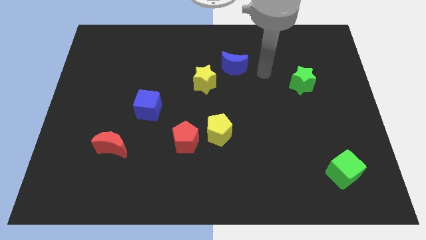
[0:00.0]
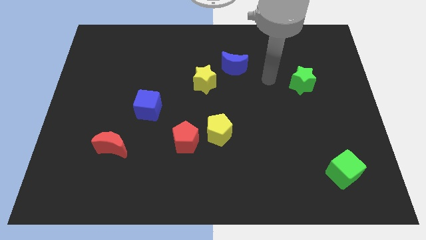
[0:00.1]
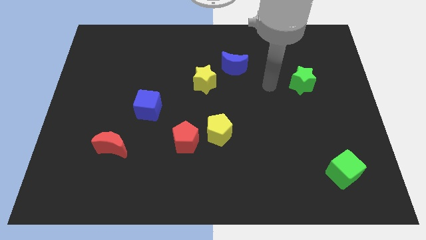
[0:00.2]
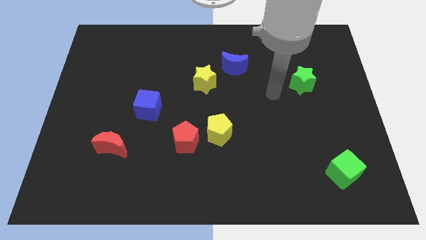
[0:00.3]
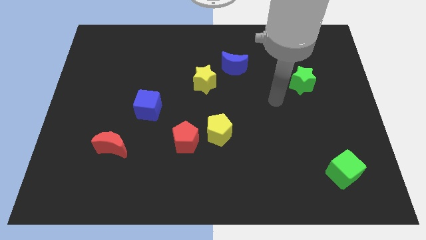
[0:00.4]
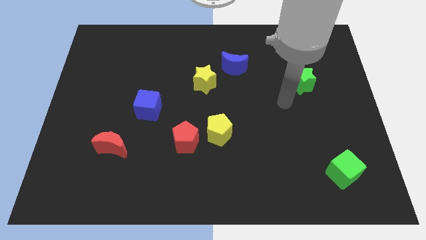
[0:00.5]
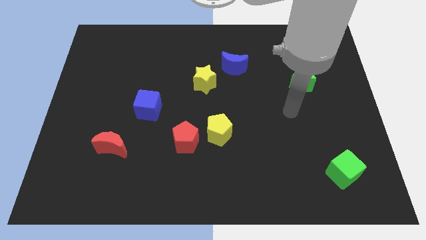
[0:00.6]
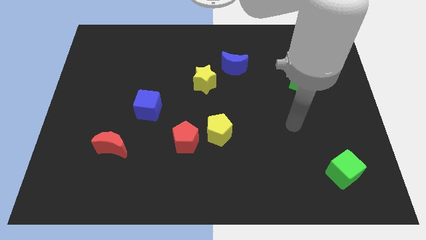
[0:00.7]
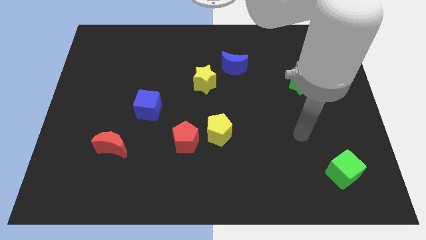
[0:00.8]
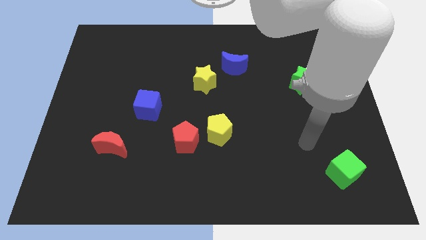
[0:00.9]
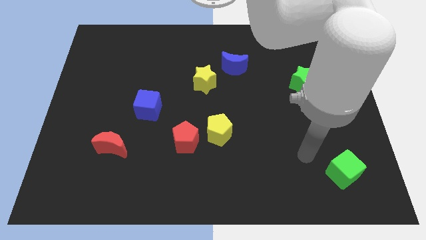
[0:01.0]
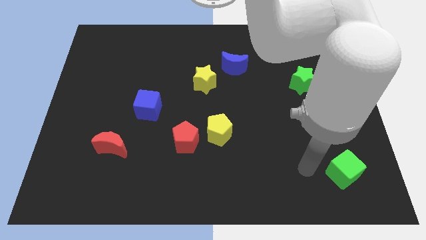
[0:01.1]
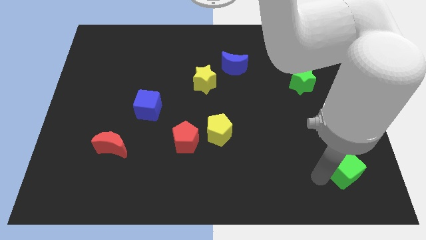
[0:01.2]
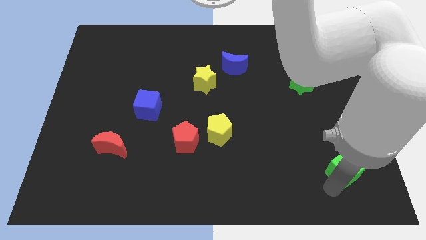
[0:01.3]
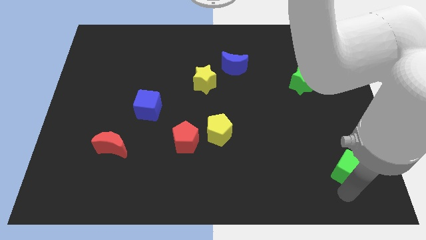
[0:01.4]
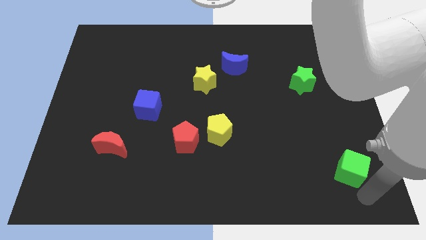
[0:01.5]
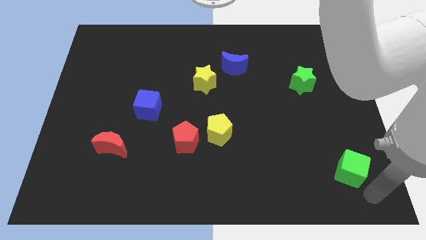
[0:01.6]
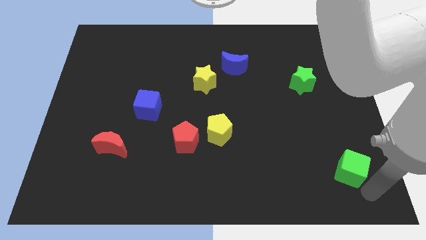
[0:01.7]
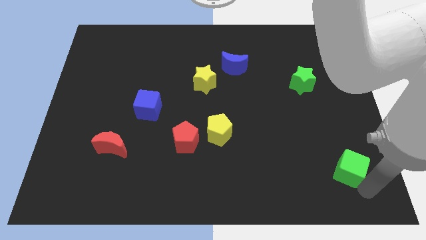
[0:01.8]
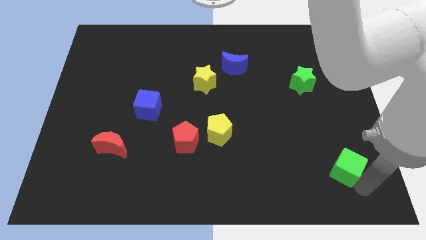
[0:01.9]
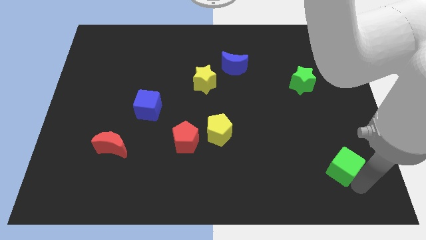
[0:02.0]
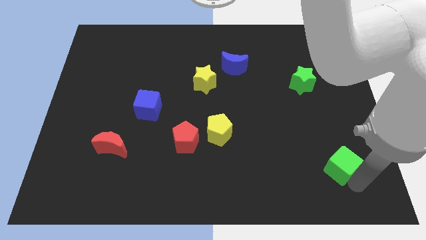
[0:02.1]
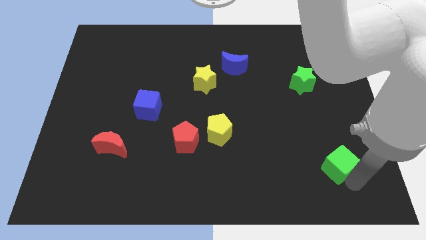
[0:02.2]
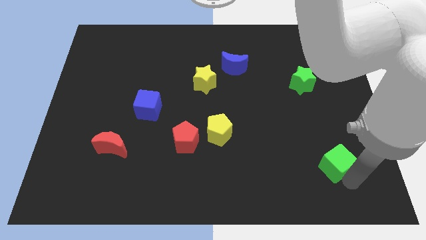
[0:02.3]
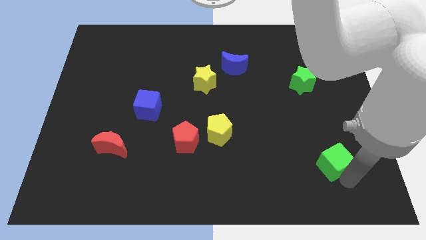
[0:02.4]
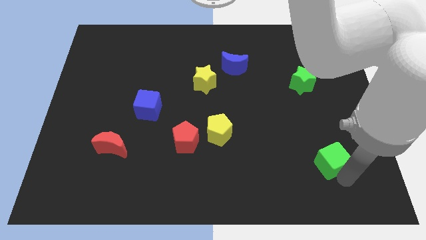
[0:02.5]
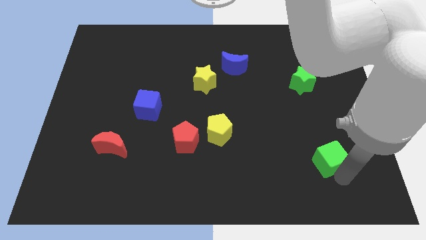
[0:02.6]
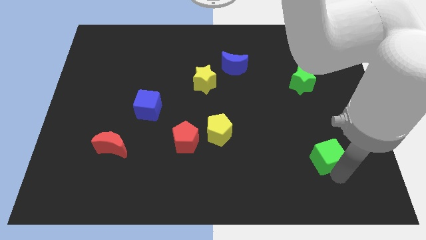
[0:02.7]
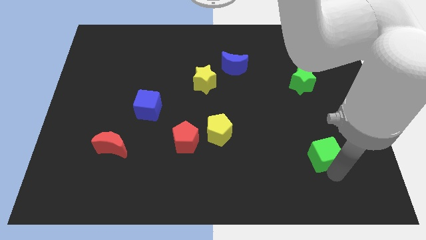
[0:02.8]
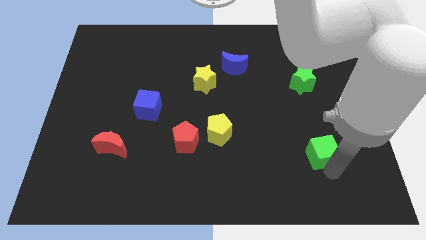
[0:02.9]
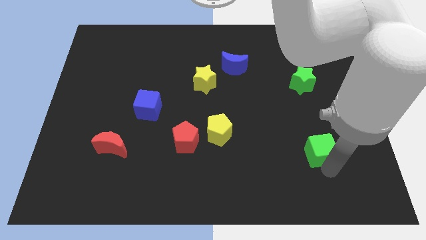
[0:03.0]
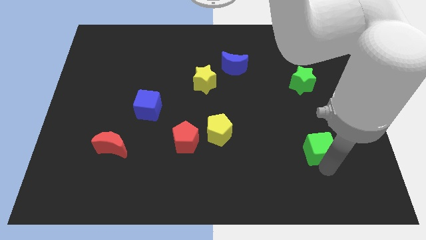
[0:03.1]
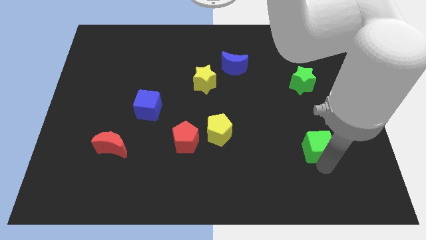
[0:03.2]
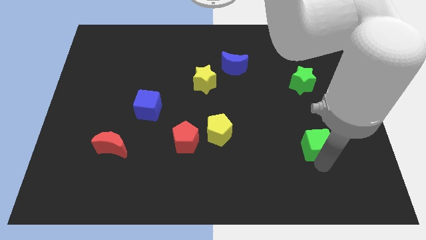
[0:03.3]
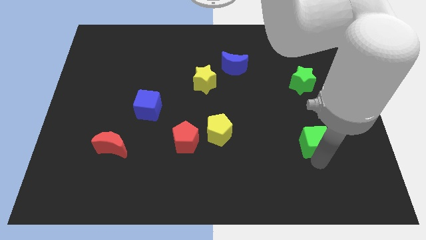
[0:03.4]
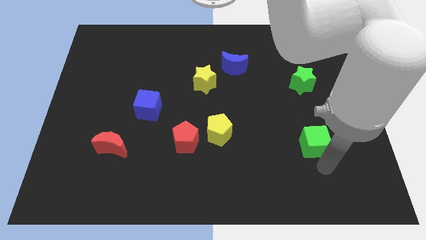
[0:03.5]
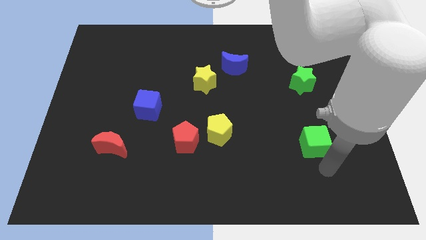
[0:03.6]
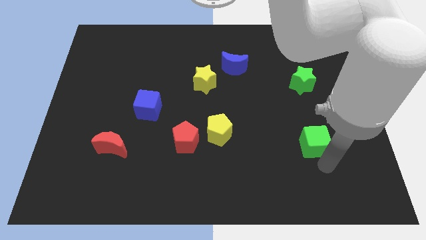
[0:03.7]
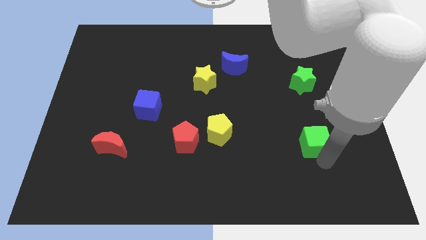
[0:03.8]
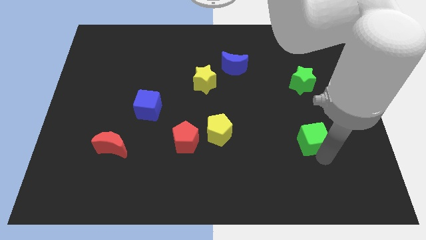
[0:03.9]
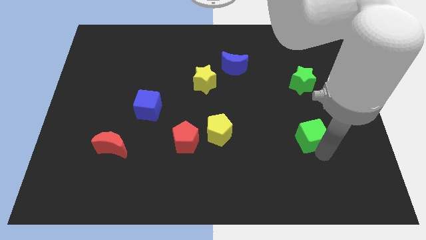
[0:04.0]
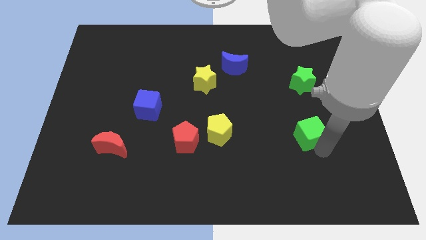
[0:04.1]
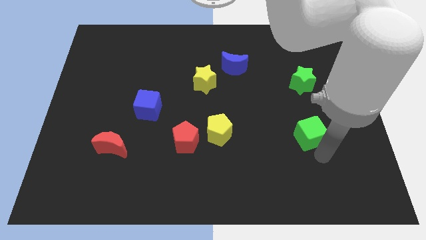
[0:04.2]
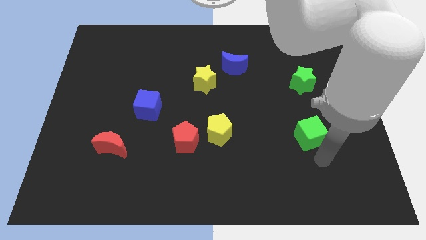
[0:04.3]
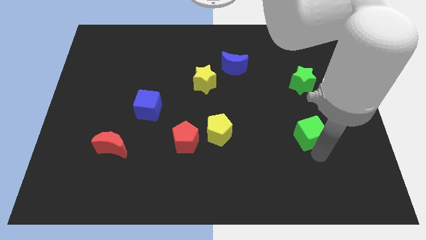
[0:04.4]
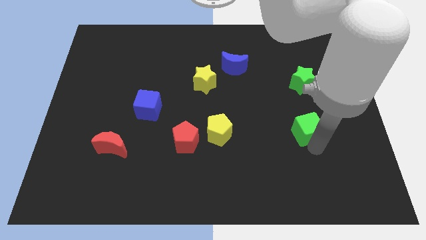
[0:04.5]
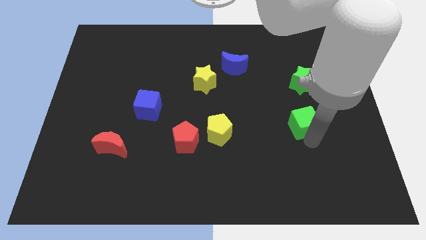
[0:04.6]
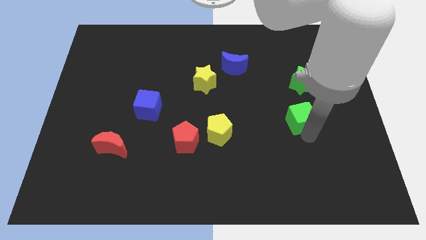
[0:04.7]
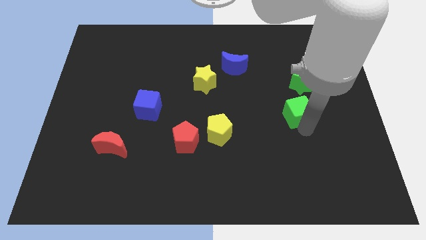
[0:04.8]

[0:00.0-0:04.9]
push the green cube diagonally down and to the left of the green star
